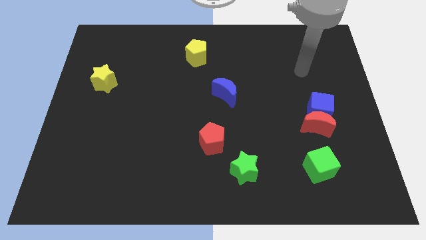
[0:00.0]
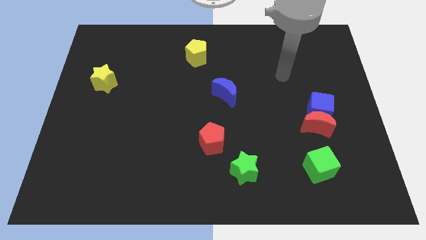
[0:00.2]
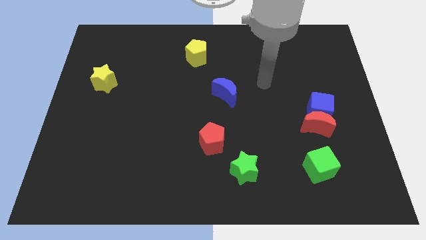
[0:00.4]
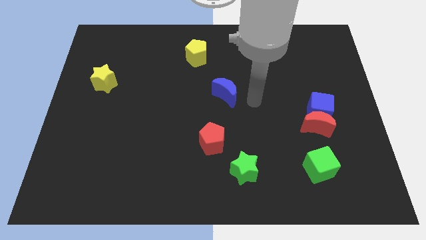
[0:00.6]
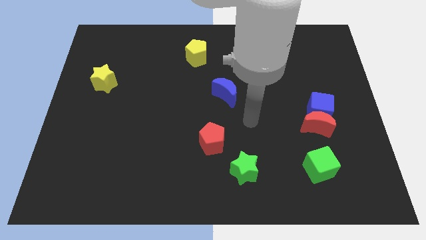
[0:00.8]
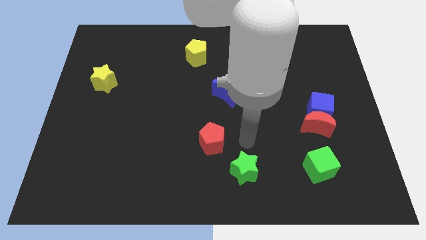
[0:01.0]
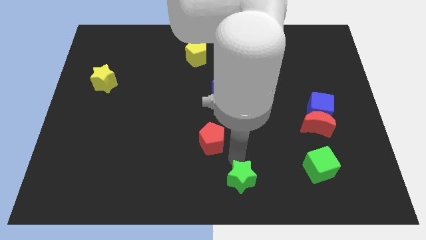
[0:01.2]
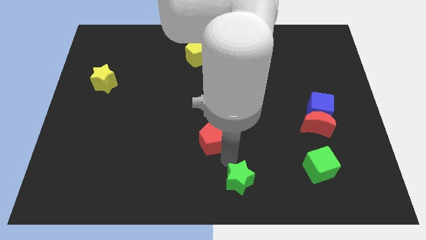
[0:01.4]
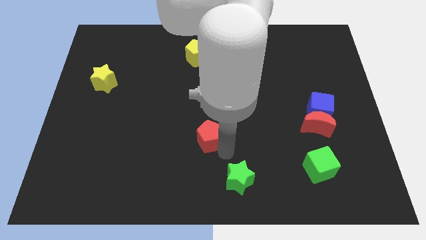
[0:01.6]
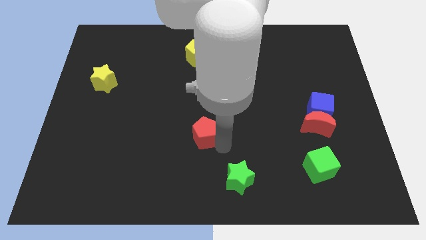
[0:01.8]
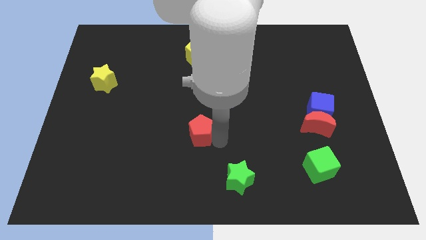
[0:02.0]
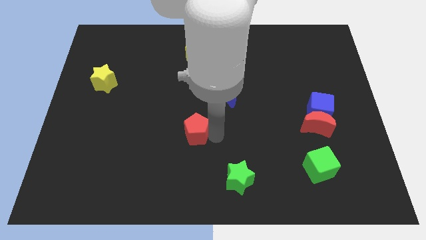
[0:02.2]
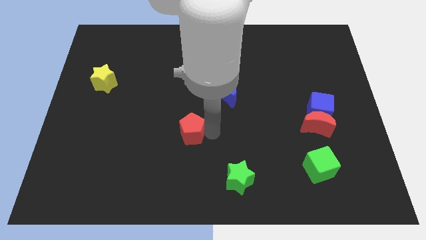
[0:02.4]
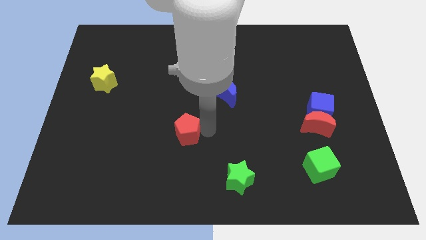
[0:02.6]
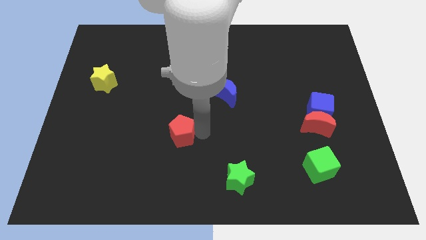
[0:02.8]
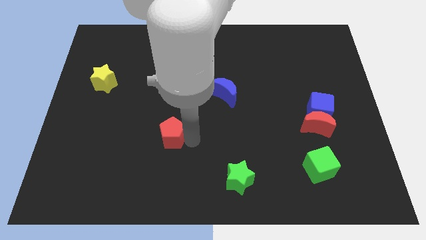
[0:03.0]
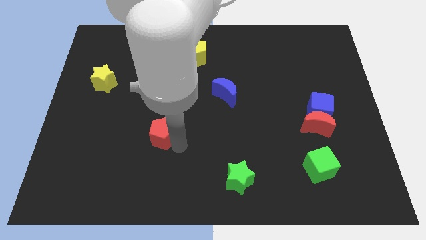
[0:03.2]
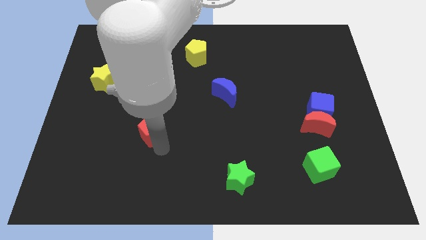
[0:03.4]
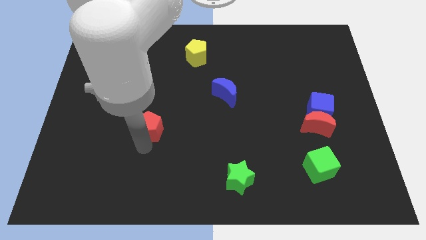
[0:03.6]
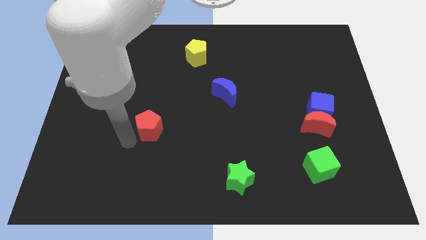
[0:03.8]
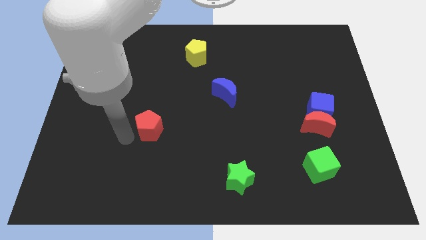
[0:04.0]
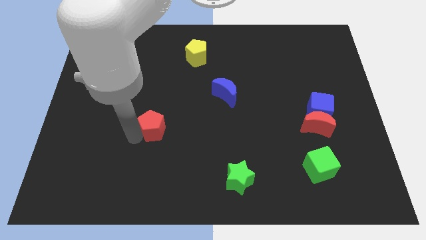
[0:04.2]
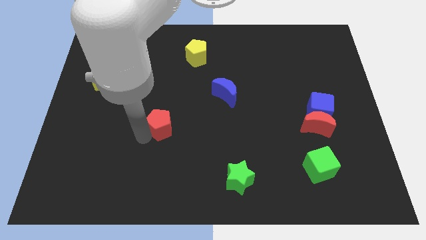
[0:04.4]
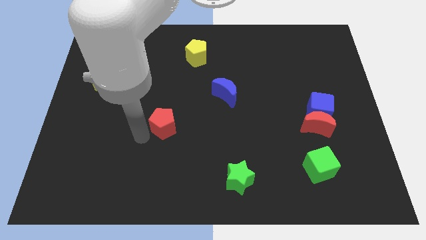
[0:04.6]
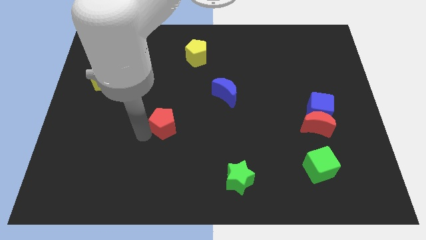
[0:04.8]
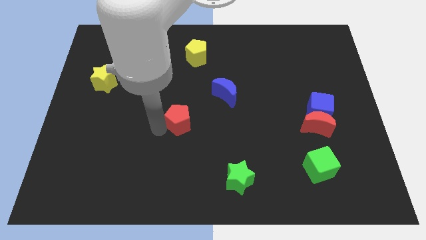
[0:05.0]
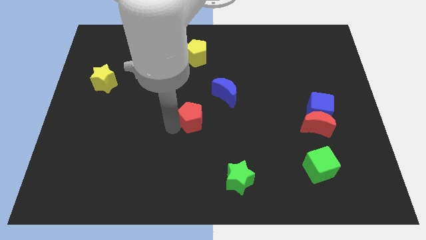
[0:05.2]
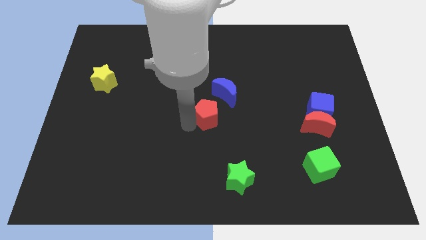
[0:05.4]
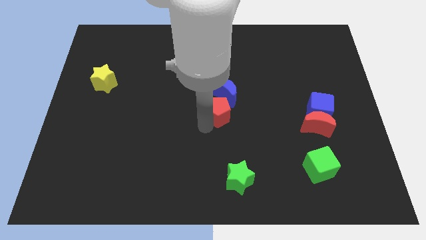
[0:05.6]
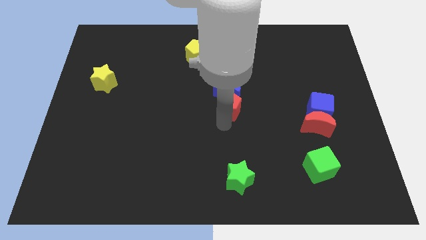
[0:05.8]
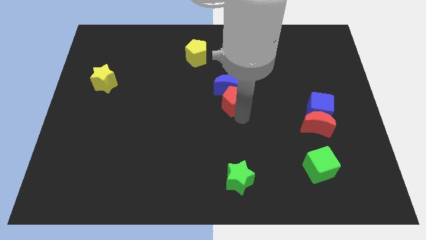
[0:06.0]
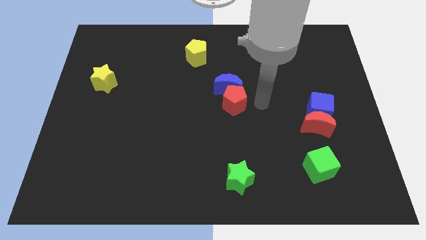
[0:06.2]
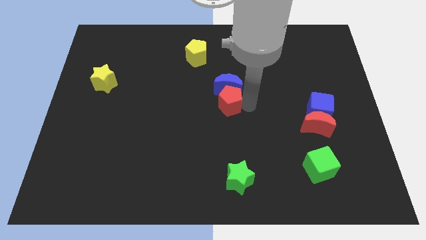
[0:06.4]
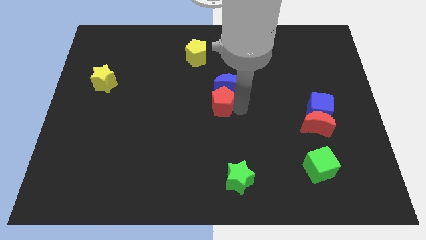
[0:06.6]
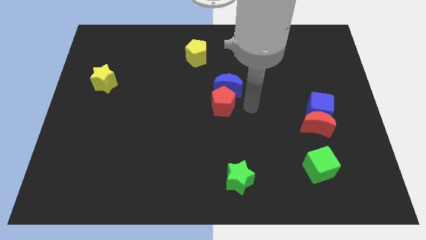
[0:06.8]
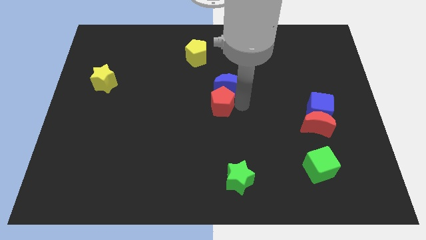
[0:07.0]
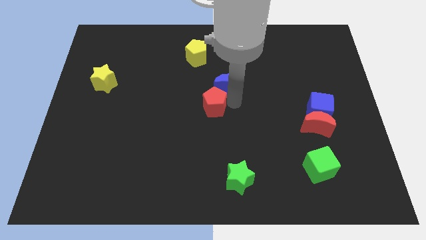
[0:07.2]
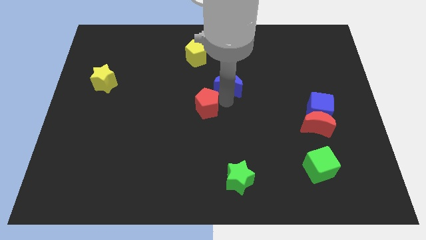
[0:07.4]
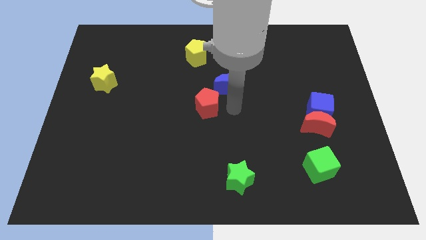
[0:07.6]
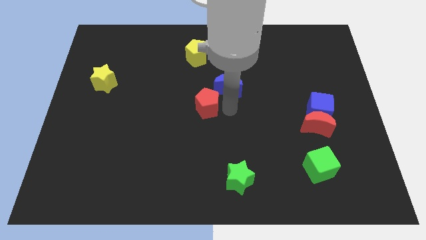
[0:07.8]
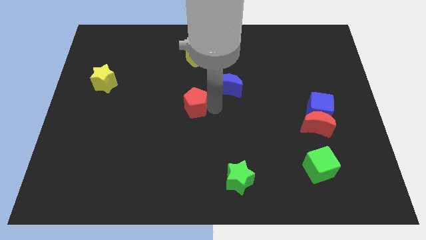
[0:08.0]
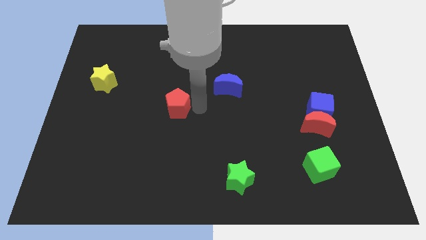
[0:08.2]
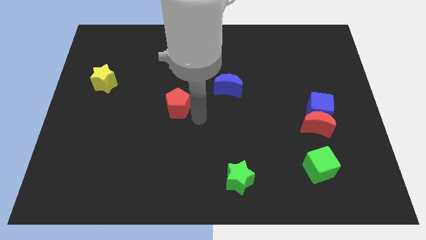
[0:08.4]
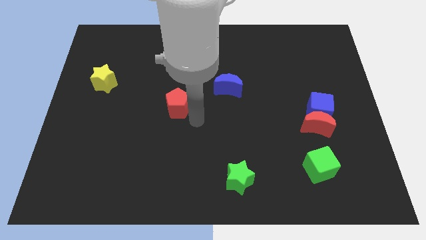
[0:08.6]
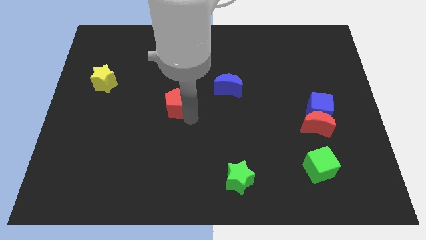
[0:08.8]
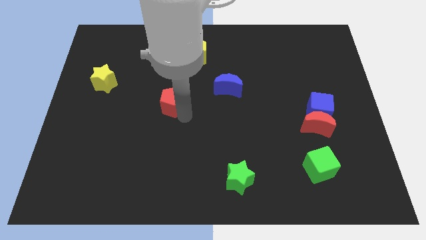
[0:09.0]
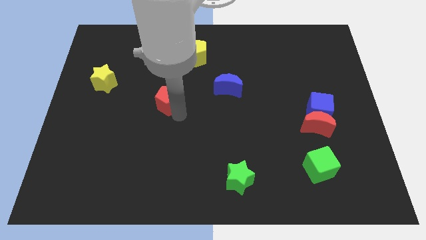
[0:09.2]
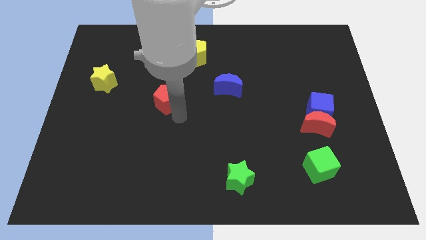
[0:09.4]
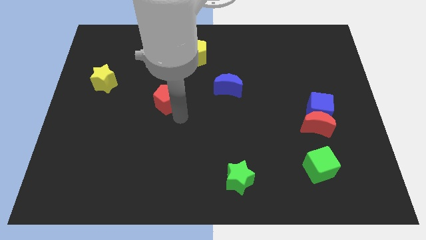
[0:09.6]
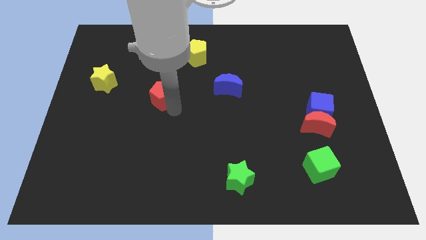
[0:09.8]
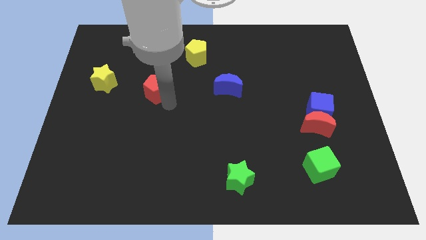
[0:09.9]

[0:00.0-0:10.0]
slide the red pentagon up and to the left

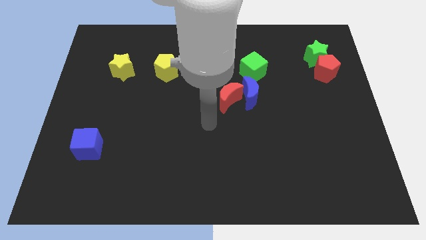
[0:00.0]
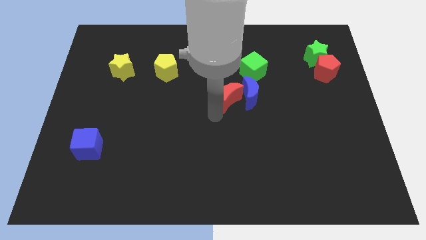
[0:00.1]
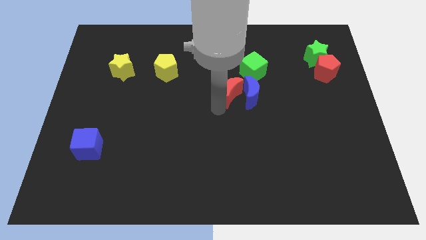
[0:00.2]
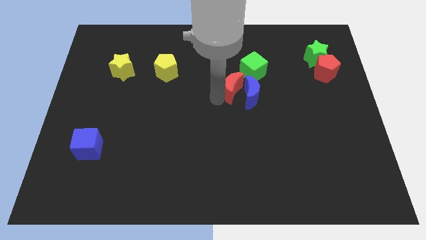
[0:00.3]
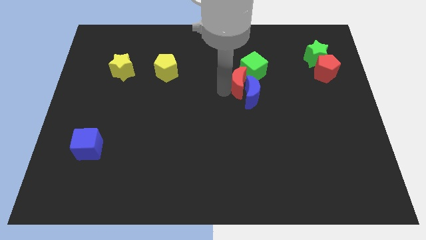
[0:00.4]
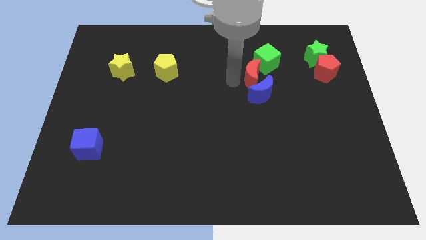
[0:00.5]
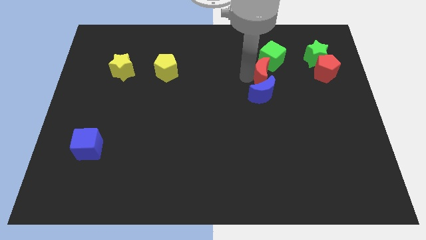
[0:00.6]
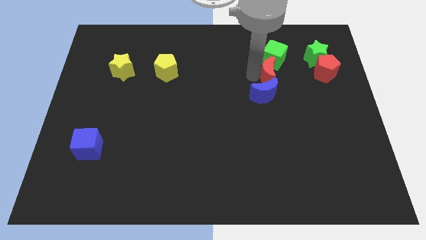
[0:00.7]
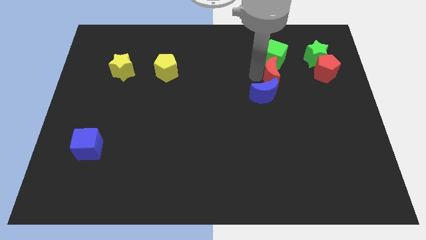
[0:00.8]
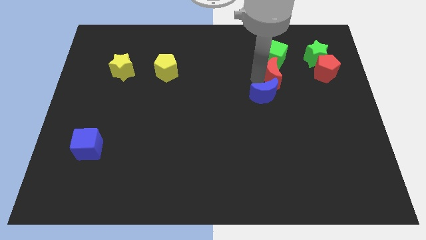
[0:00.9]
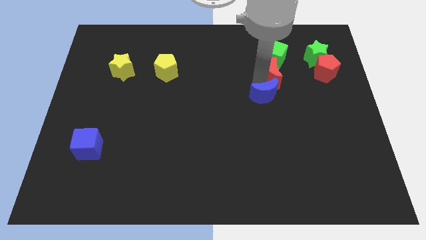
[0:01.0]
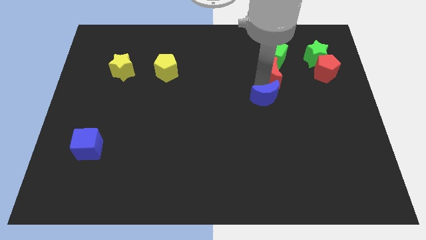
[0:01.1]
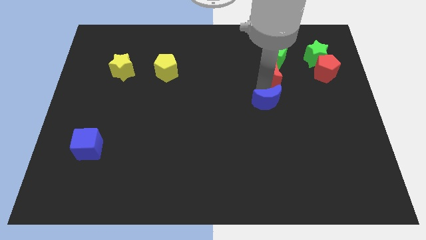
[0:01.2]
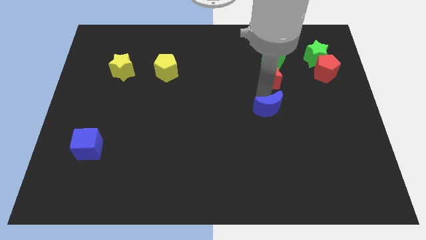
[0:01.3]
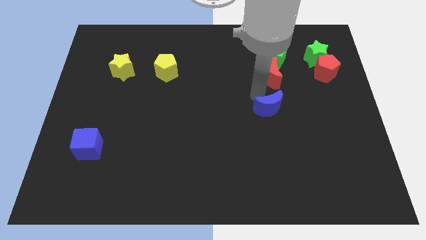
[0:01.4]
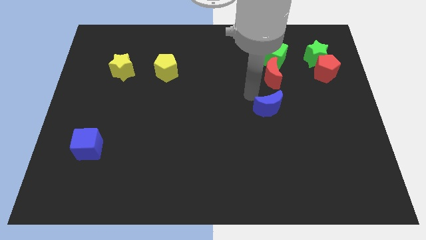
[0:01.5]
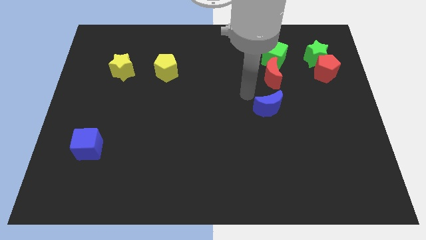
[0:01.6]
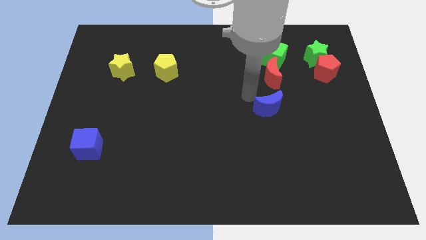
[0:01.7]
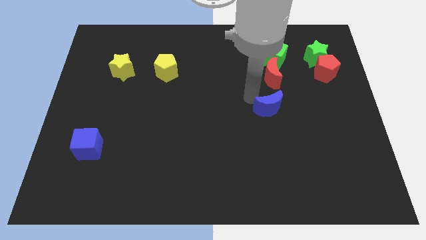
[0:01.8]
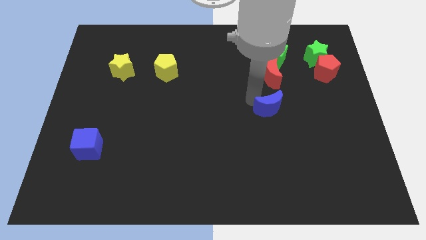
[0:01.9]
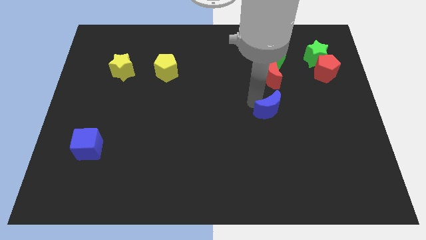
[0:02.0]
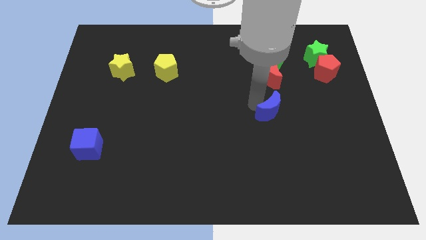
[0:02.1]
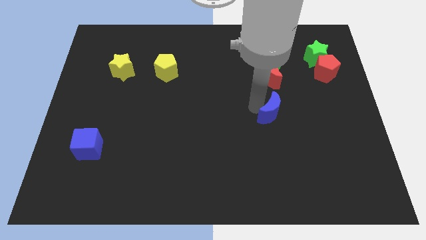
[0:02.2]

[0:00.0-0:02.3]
push the blue moon downwards and then right a little

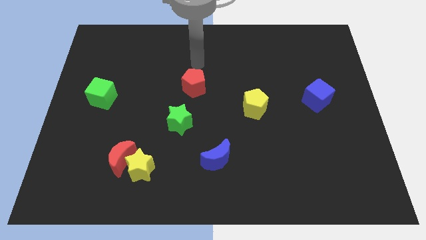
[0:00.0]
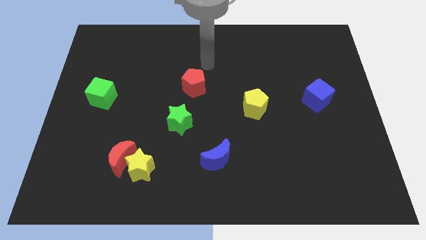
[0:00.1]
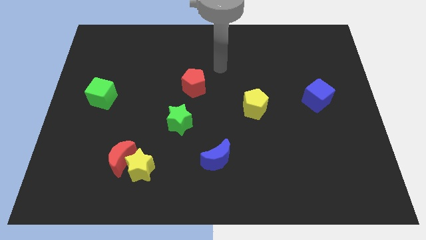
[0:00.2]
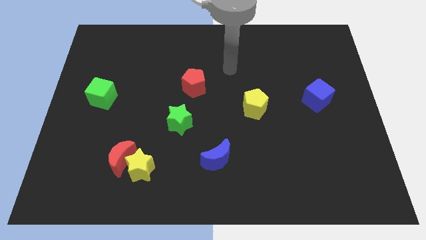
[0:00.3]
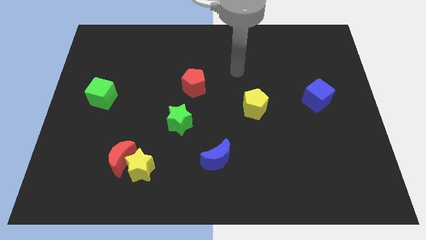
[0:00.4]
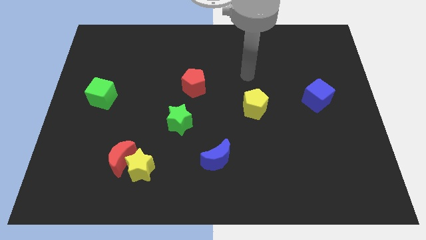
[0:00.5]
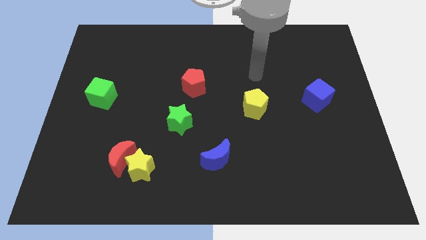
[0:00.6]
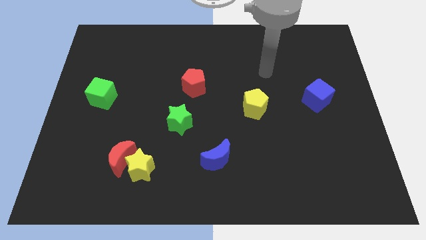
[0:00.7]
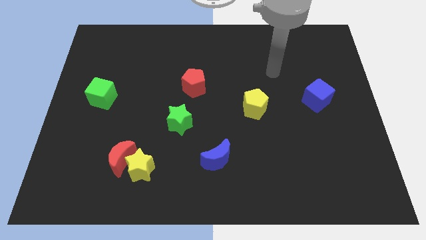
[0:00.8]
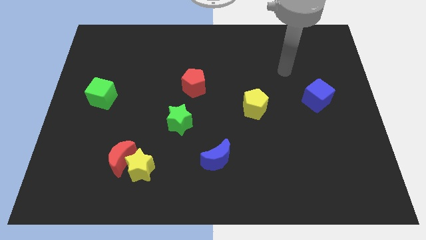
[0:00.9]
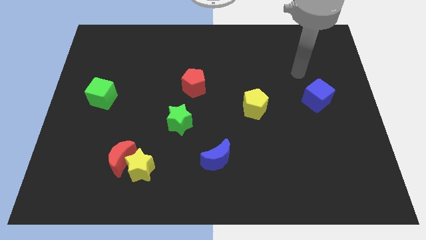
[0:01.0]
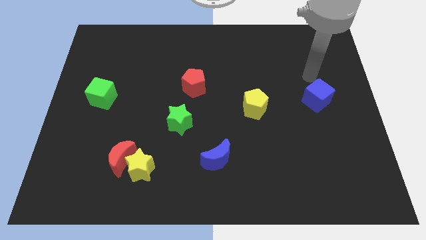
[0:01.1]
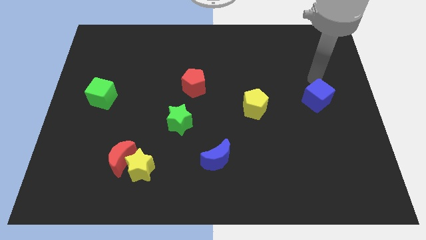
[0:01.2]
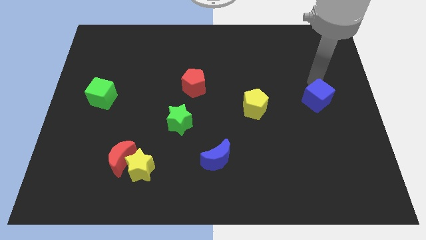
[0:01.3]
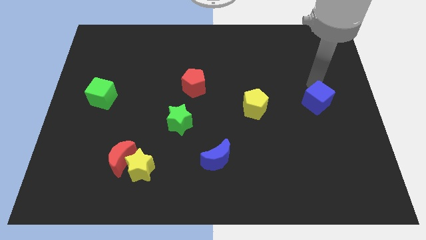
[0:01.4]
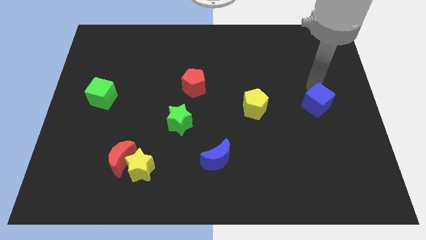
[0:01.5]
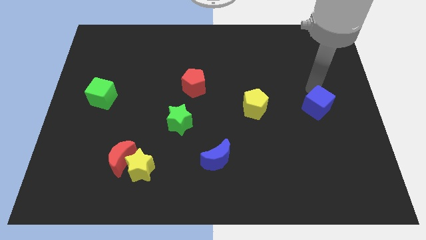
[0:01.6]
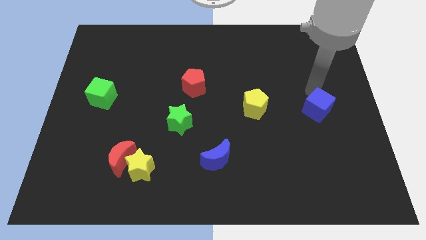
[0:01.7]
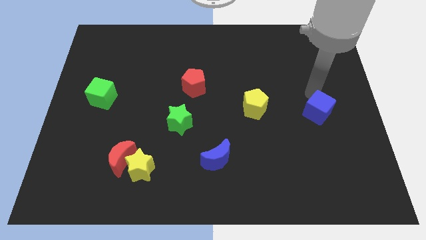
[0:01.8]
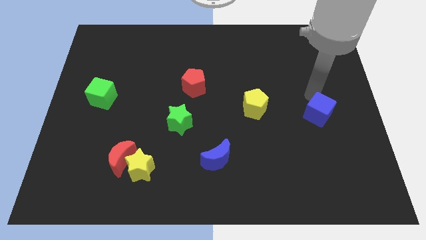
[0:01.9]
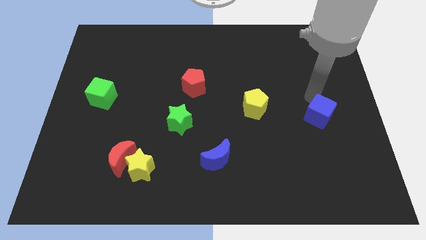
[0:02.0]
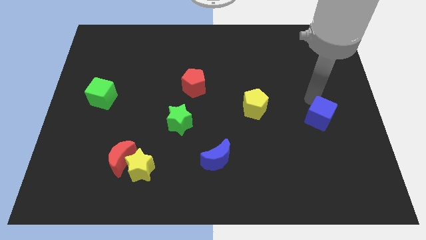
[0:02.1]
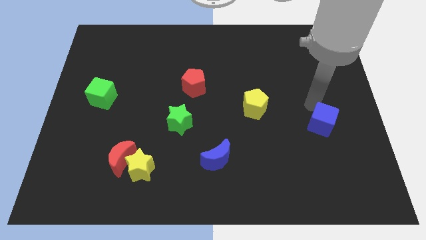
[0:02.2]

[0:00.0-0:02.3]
move the blue cube down a little
